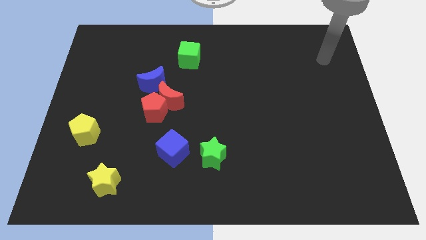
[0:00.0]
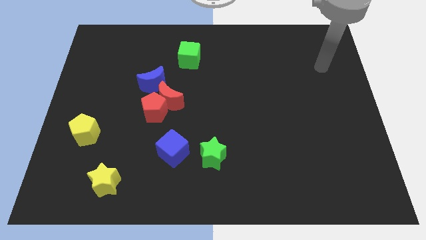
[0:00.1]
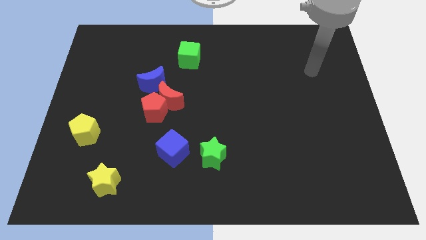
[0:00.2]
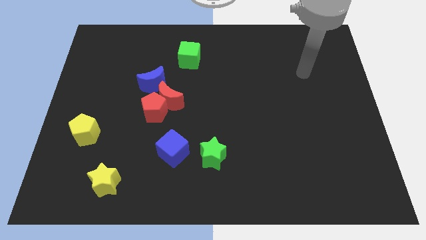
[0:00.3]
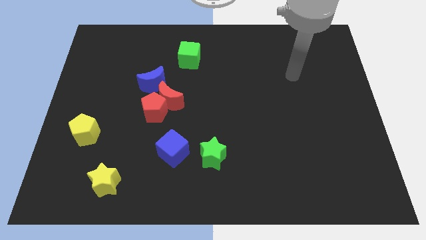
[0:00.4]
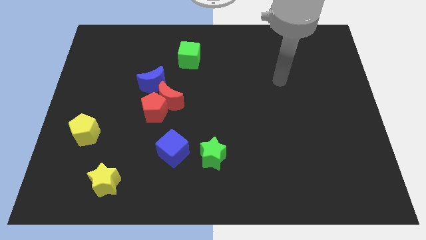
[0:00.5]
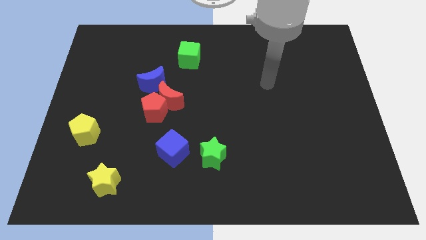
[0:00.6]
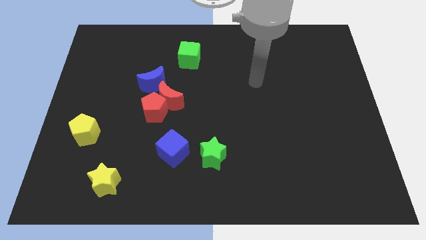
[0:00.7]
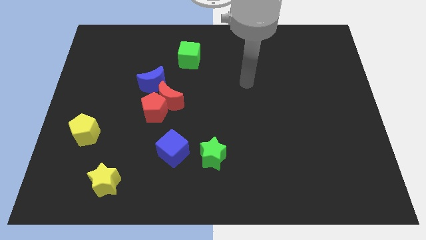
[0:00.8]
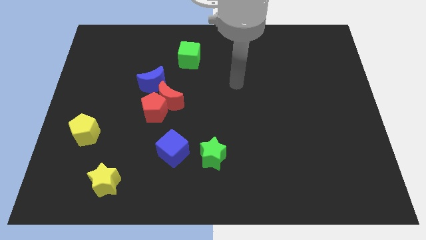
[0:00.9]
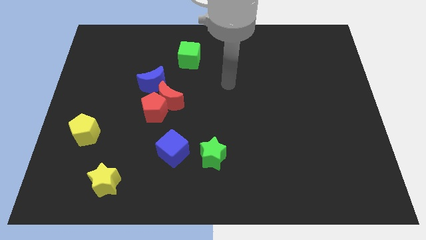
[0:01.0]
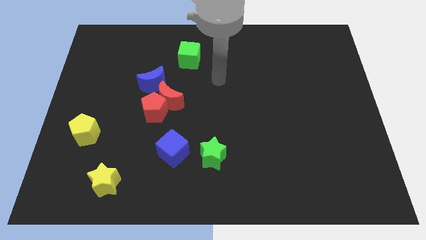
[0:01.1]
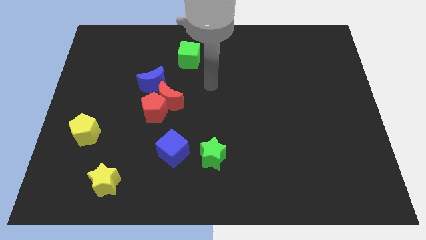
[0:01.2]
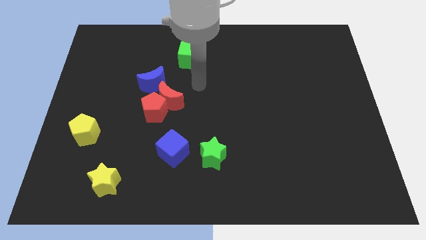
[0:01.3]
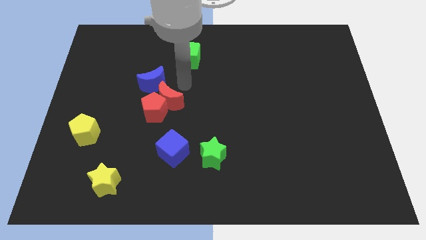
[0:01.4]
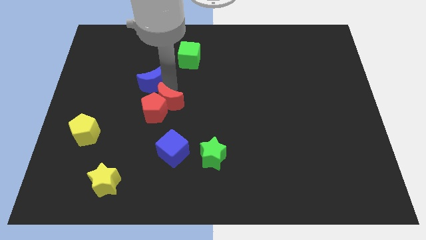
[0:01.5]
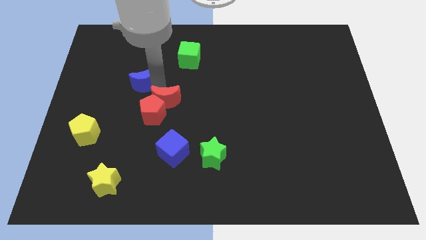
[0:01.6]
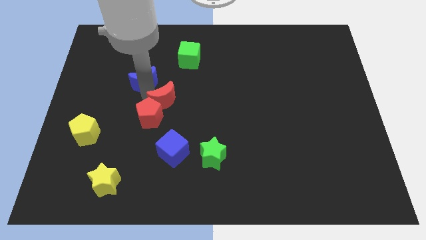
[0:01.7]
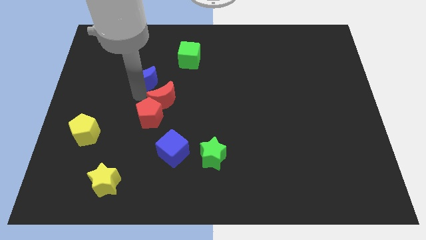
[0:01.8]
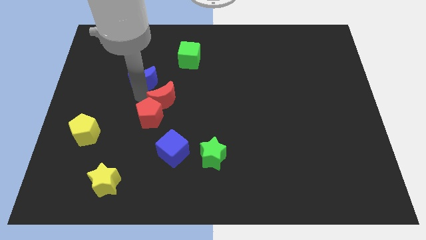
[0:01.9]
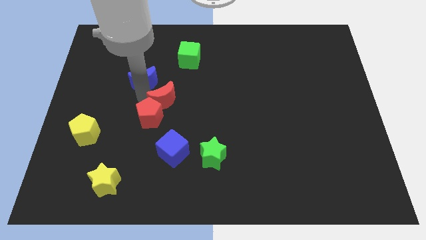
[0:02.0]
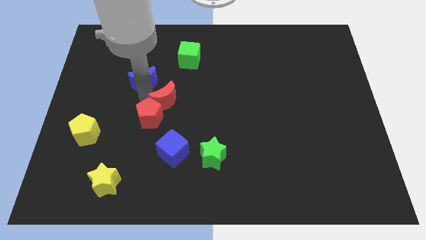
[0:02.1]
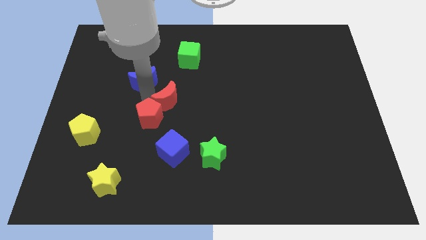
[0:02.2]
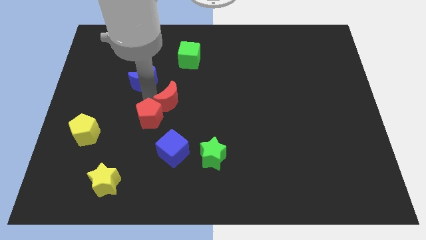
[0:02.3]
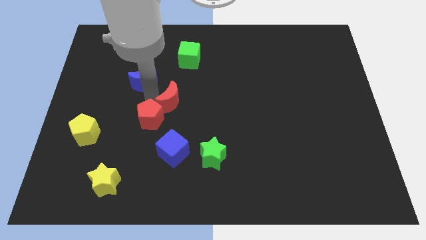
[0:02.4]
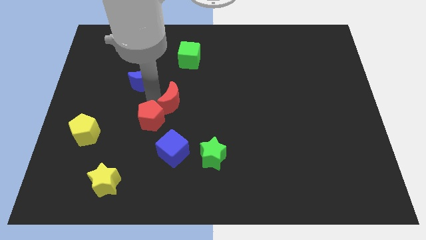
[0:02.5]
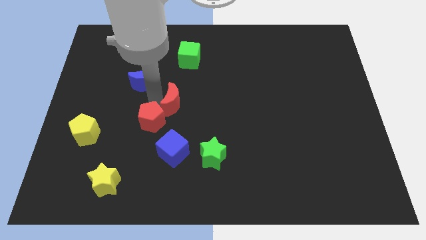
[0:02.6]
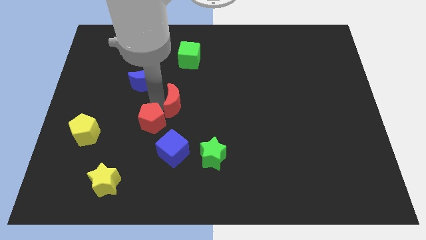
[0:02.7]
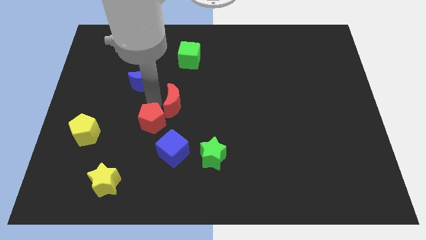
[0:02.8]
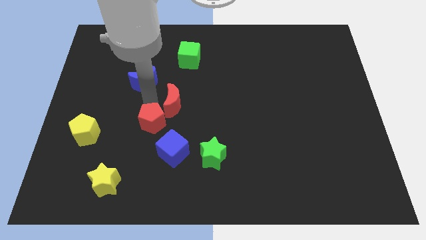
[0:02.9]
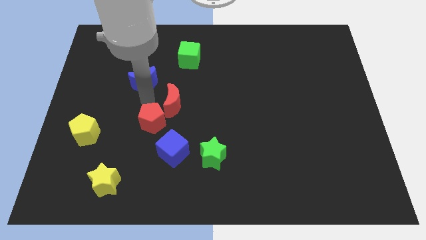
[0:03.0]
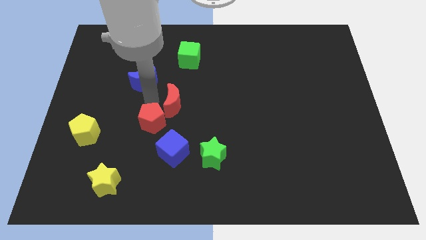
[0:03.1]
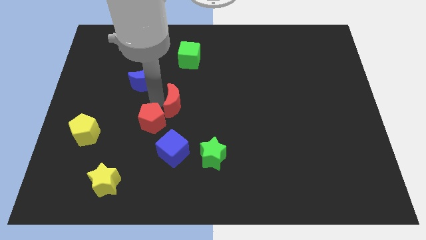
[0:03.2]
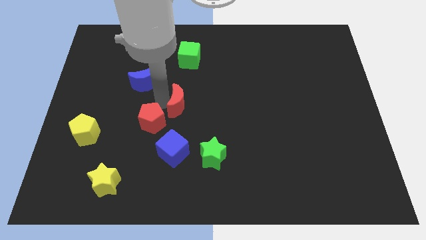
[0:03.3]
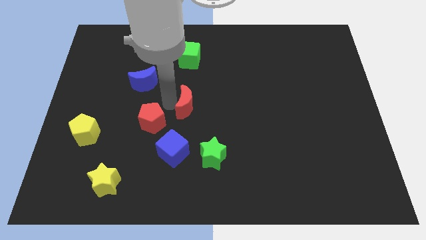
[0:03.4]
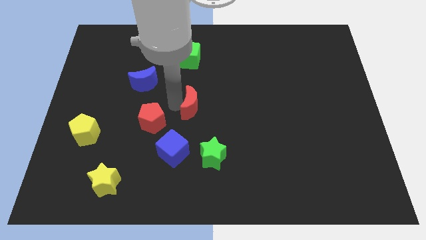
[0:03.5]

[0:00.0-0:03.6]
separate the red moon from the red pentagon and blue moon

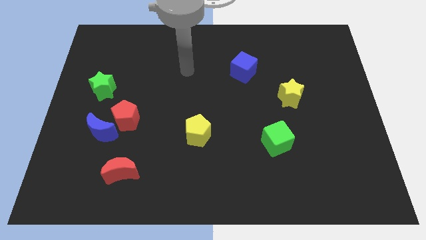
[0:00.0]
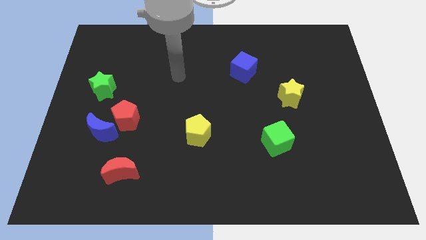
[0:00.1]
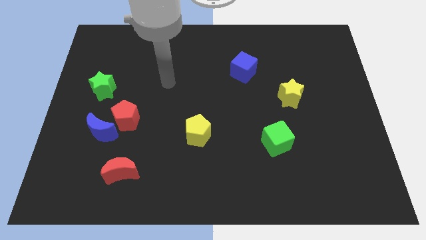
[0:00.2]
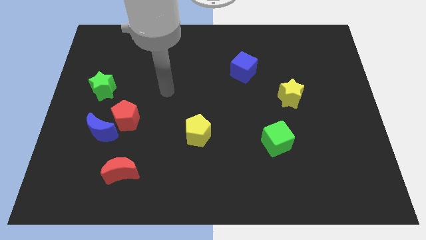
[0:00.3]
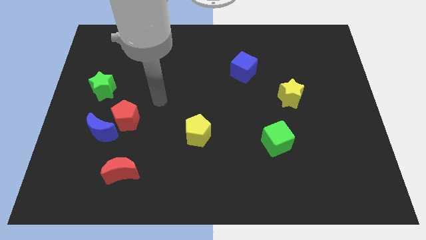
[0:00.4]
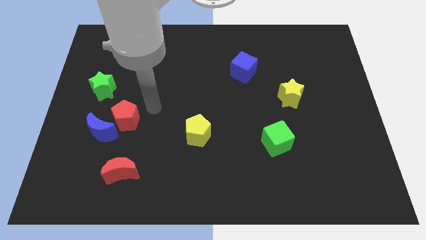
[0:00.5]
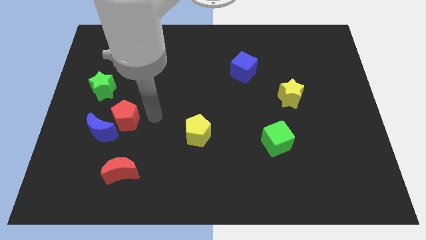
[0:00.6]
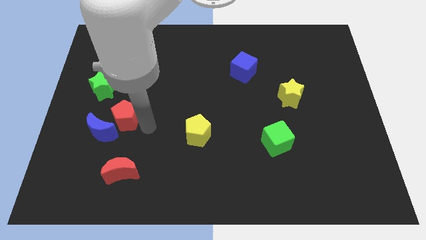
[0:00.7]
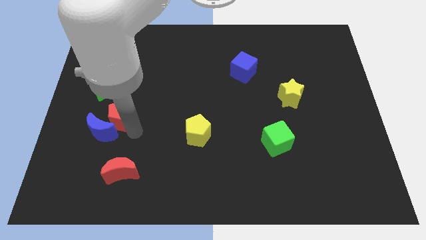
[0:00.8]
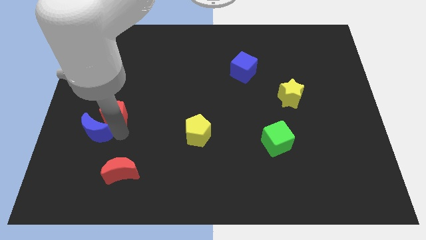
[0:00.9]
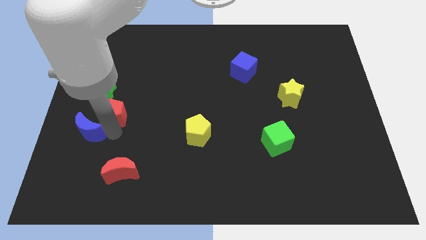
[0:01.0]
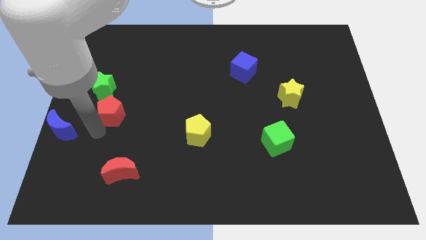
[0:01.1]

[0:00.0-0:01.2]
pull the red pentagon apart from the blue moon

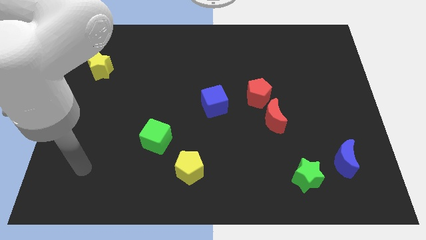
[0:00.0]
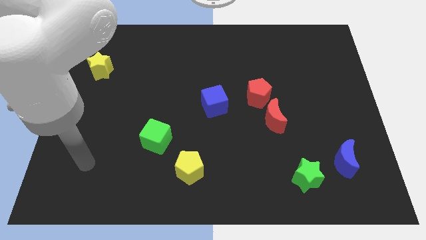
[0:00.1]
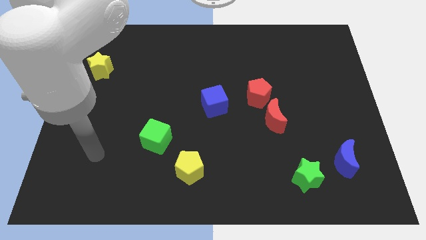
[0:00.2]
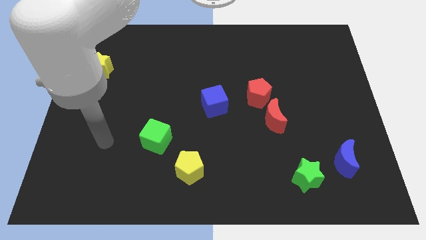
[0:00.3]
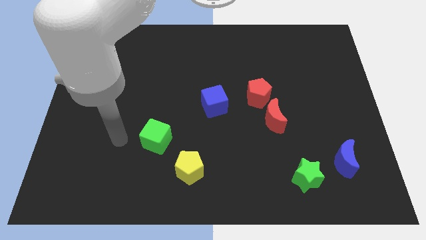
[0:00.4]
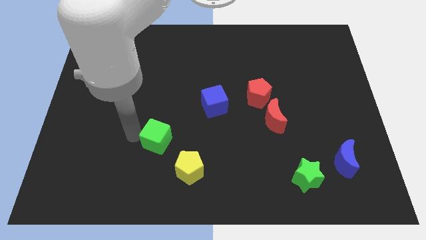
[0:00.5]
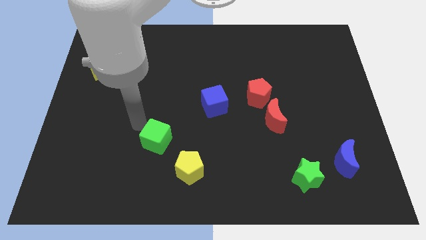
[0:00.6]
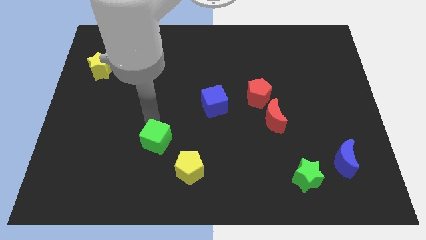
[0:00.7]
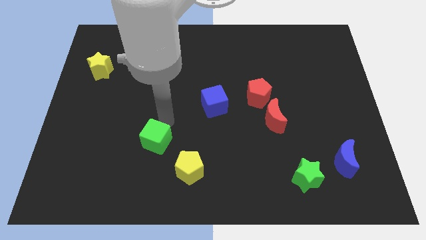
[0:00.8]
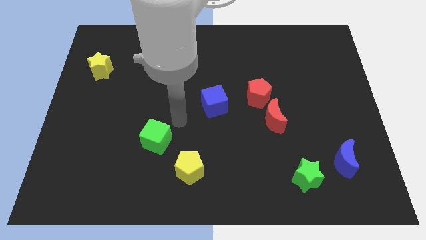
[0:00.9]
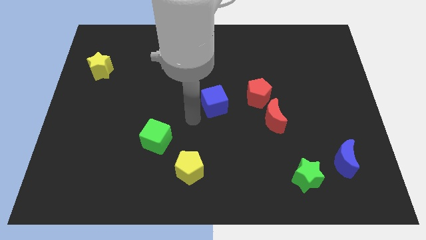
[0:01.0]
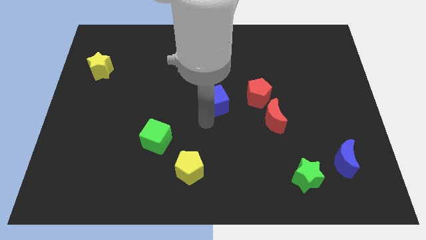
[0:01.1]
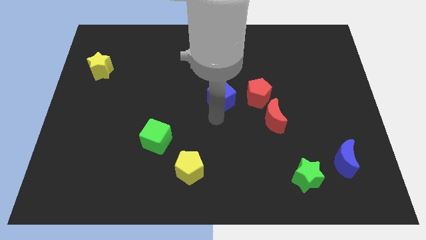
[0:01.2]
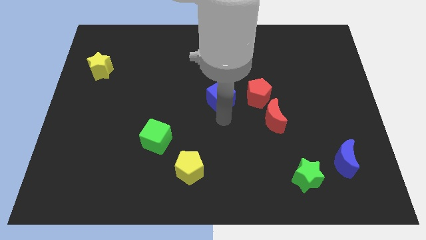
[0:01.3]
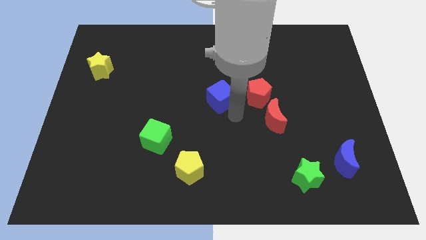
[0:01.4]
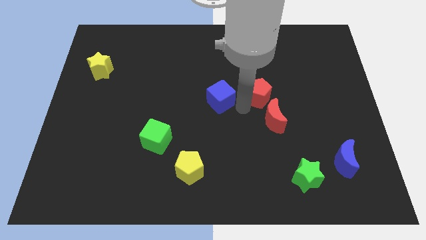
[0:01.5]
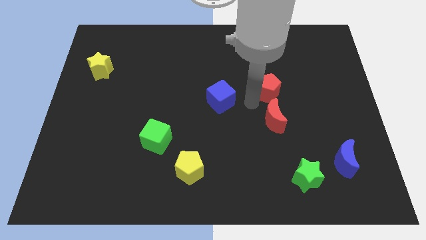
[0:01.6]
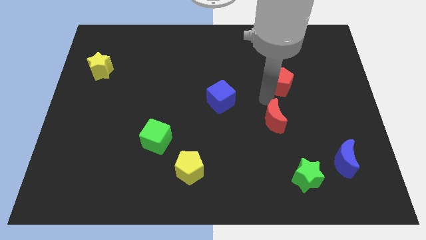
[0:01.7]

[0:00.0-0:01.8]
pull the red moon apart from the red pentagon

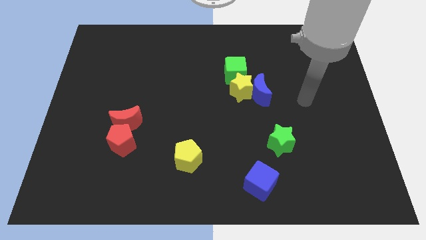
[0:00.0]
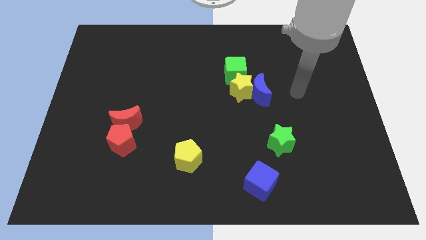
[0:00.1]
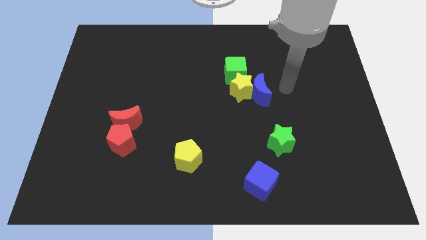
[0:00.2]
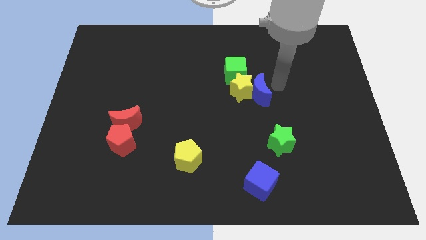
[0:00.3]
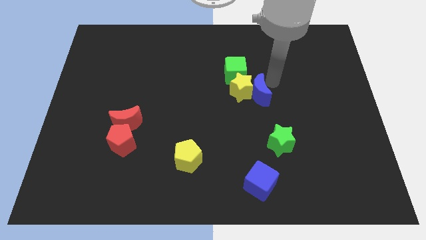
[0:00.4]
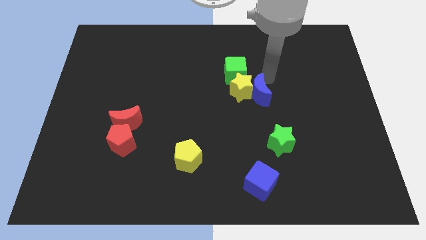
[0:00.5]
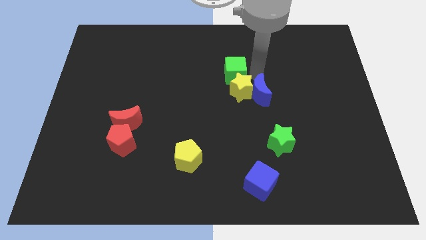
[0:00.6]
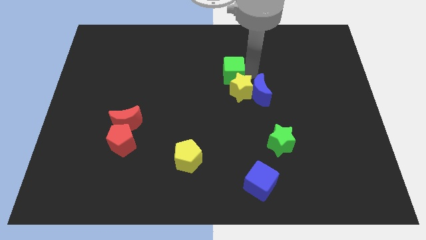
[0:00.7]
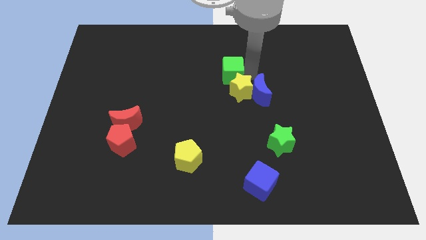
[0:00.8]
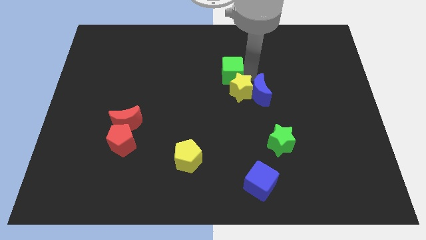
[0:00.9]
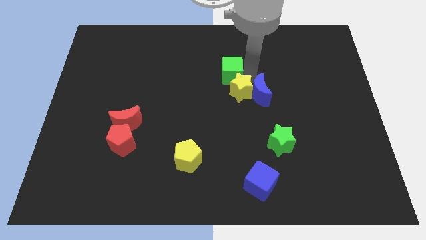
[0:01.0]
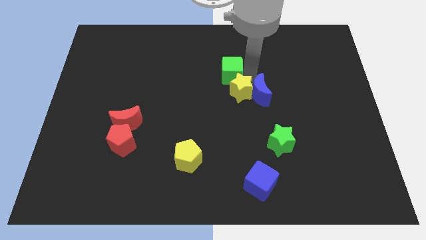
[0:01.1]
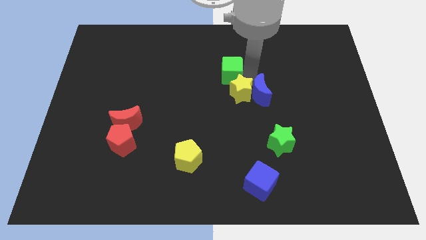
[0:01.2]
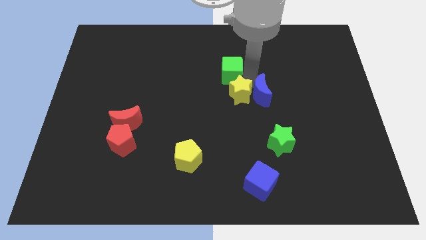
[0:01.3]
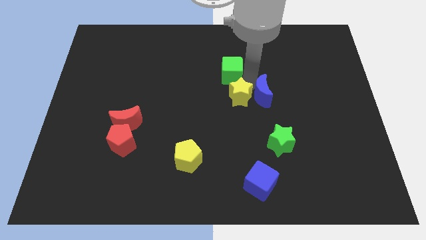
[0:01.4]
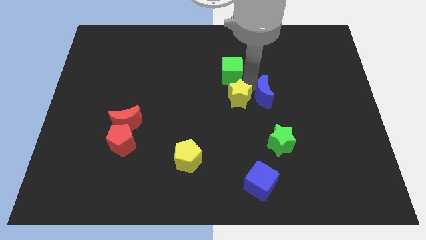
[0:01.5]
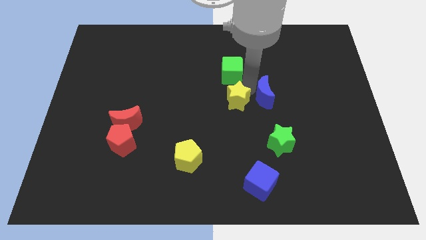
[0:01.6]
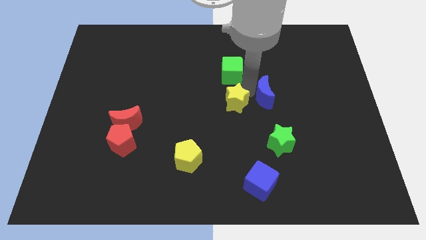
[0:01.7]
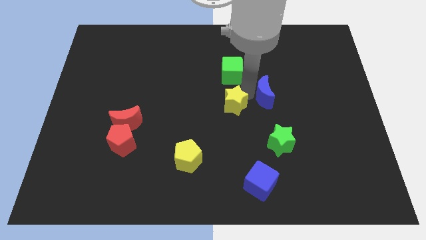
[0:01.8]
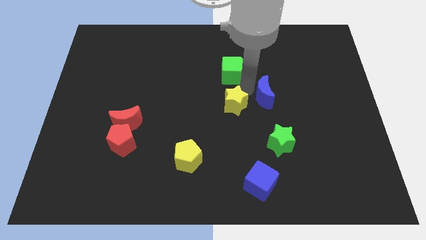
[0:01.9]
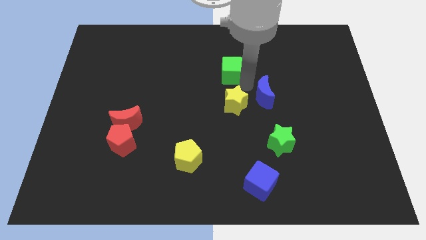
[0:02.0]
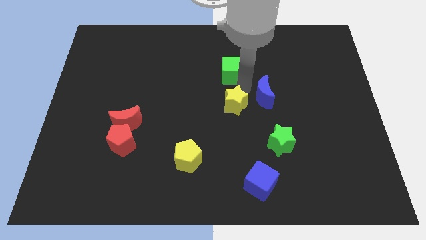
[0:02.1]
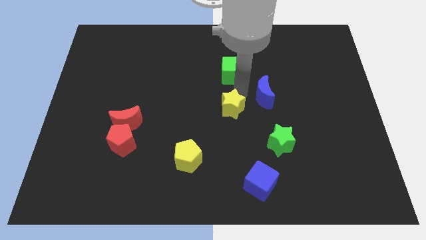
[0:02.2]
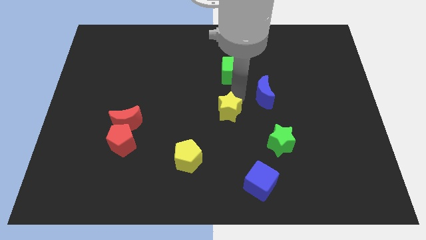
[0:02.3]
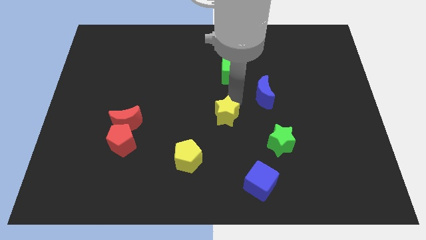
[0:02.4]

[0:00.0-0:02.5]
move the yellow star away from the blue moon and green cube

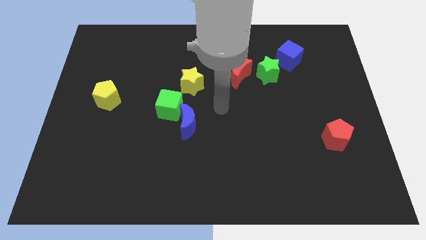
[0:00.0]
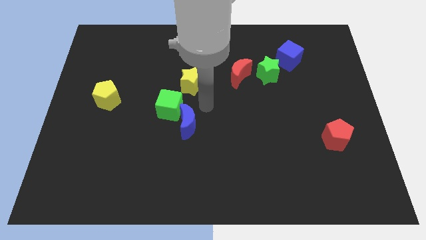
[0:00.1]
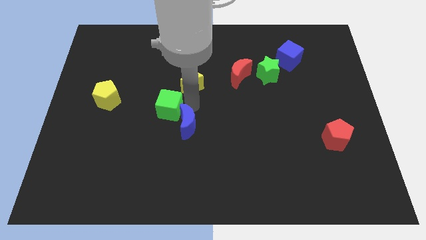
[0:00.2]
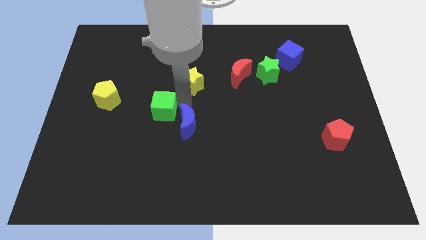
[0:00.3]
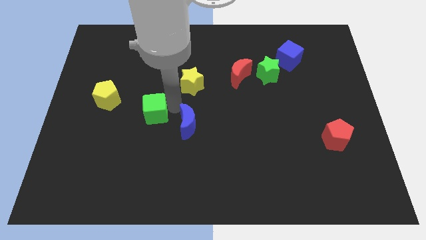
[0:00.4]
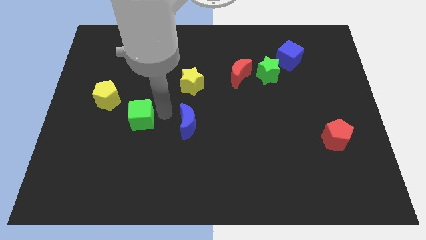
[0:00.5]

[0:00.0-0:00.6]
pull the blue moon apart from the green cube
